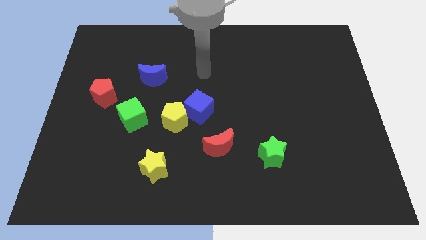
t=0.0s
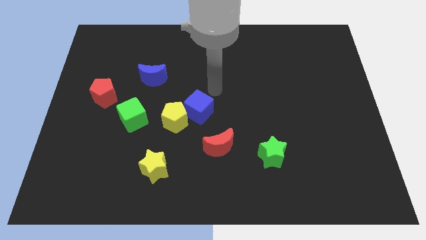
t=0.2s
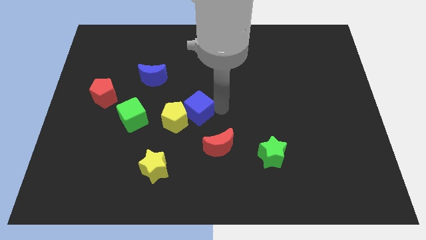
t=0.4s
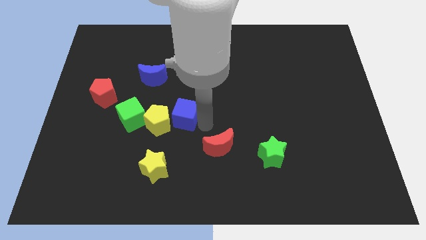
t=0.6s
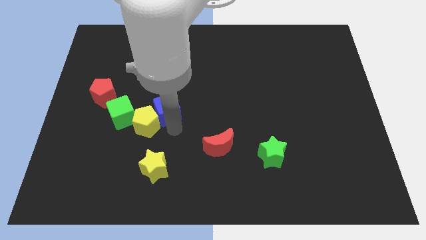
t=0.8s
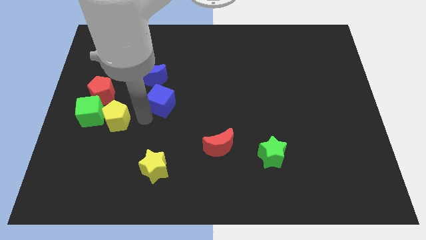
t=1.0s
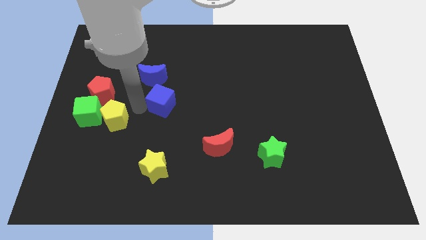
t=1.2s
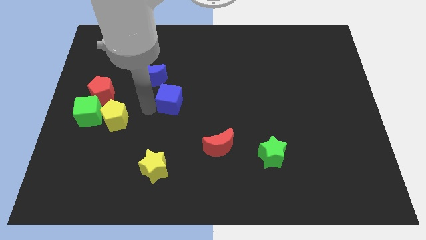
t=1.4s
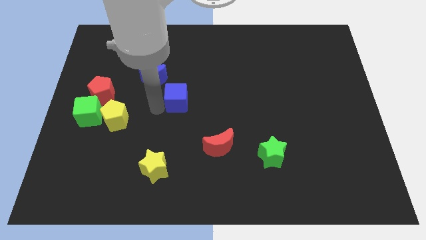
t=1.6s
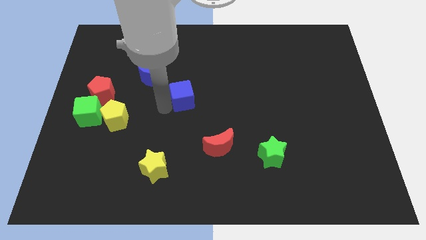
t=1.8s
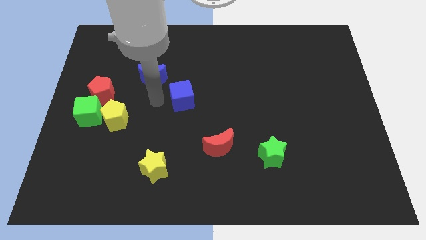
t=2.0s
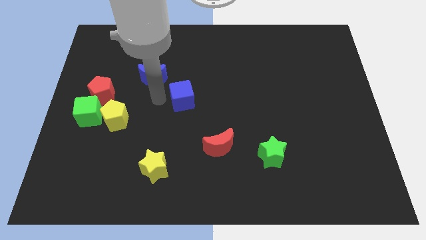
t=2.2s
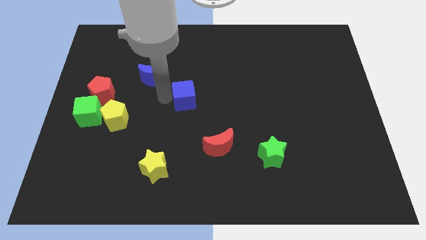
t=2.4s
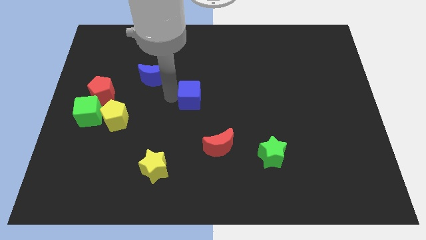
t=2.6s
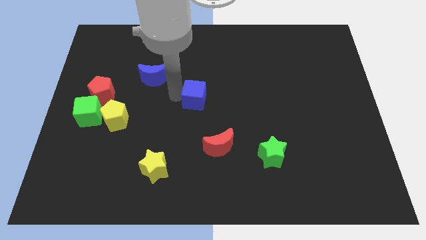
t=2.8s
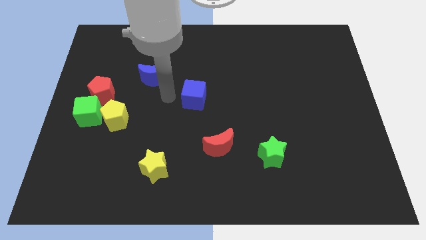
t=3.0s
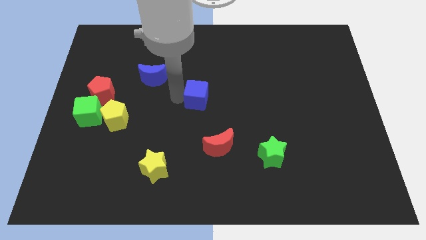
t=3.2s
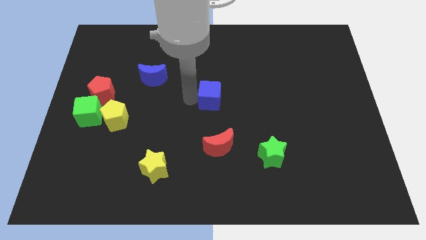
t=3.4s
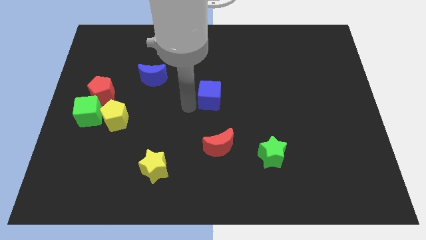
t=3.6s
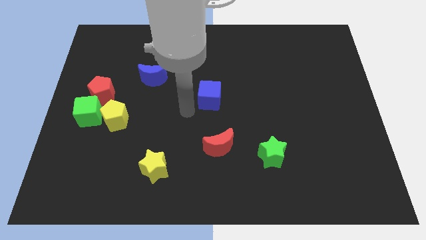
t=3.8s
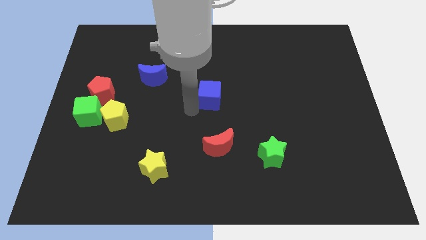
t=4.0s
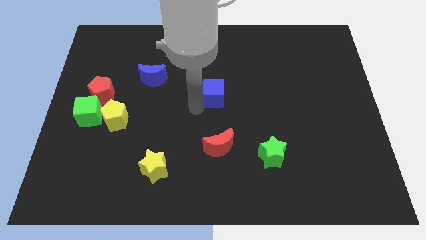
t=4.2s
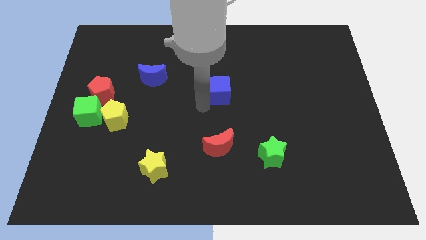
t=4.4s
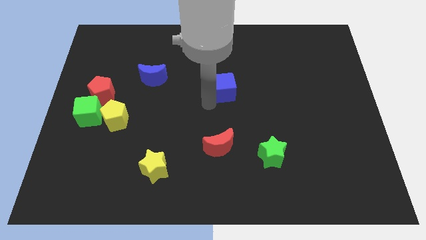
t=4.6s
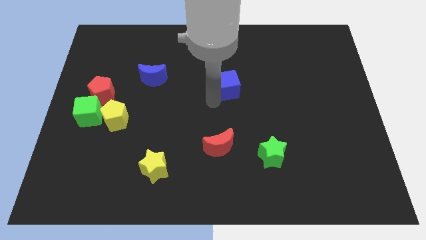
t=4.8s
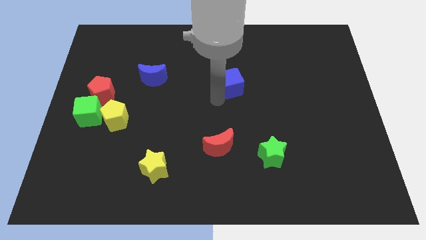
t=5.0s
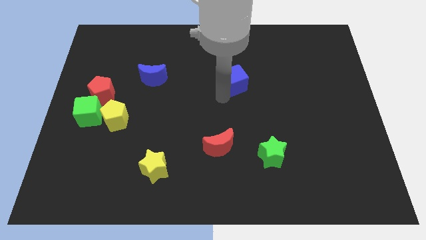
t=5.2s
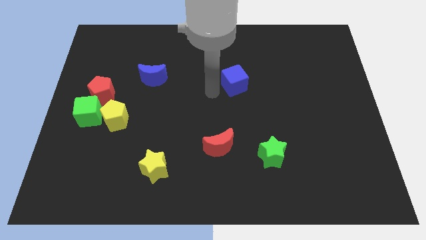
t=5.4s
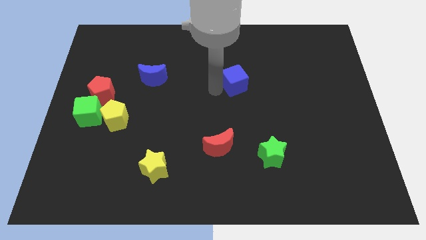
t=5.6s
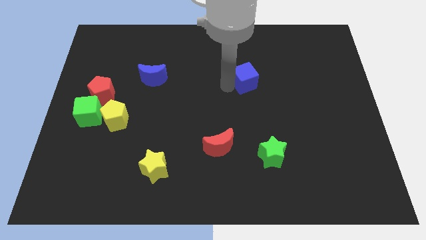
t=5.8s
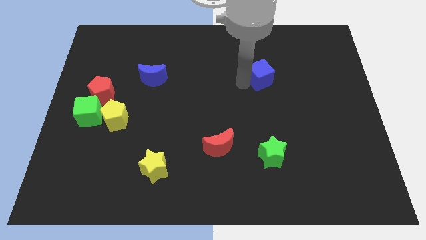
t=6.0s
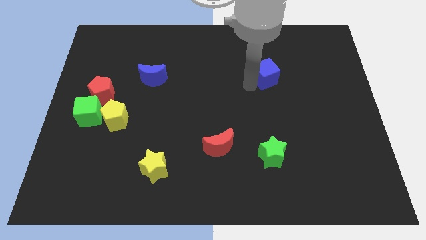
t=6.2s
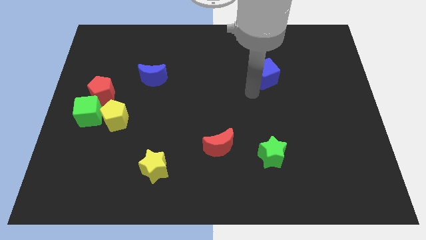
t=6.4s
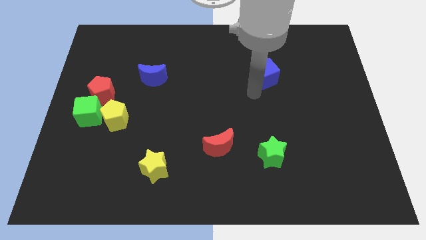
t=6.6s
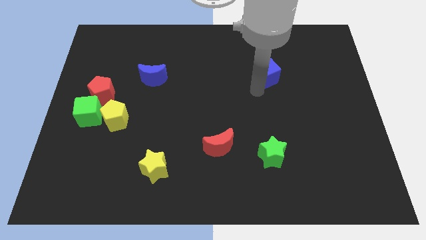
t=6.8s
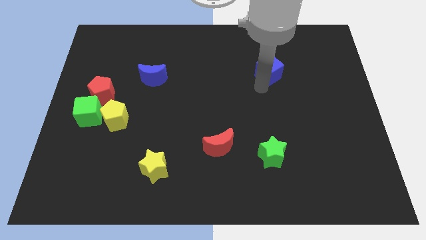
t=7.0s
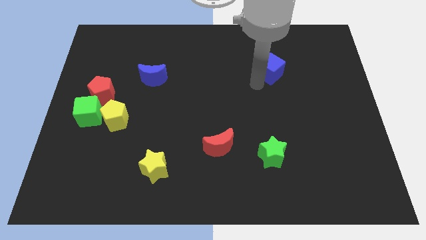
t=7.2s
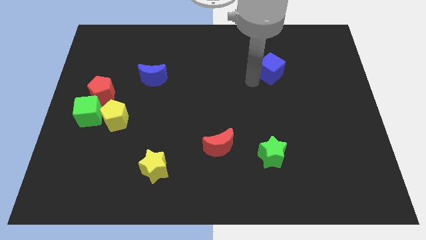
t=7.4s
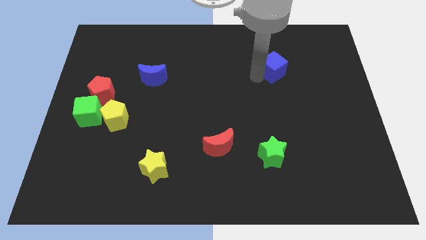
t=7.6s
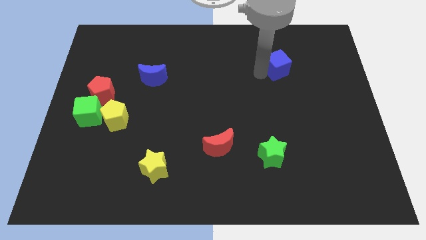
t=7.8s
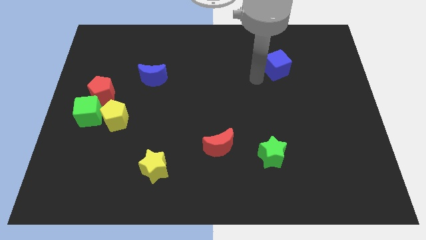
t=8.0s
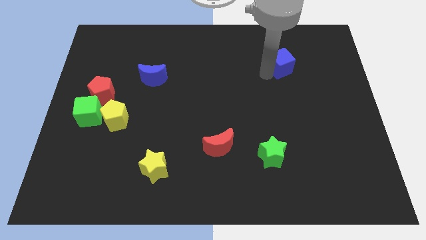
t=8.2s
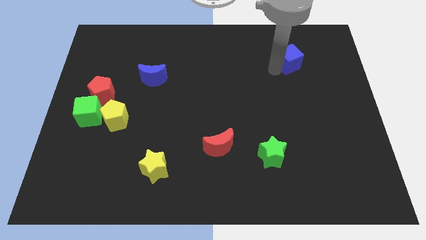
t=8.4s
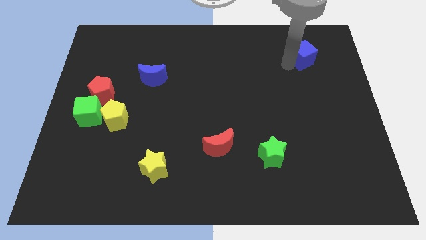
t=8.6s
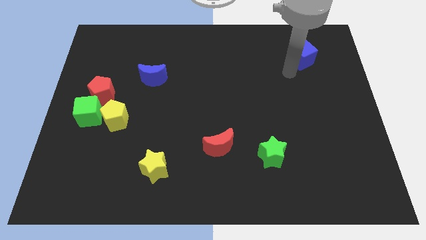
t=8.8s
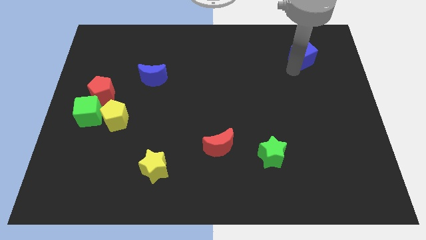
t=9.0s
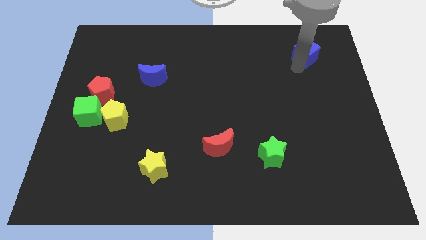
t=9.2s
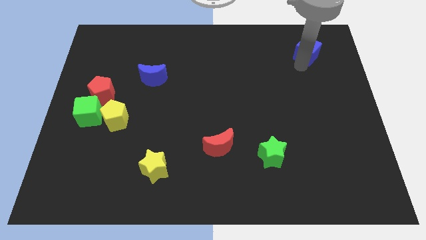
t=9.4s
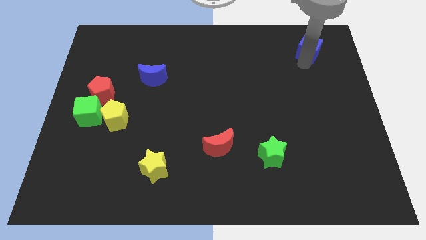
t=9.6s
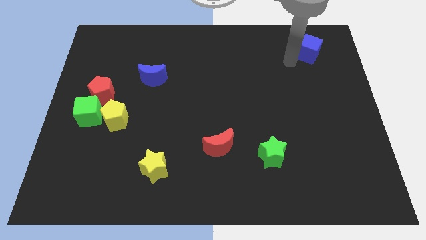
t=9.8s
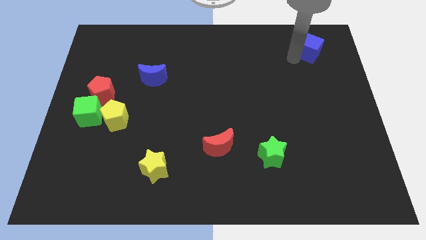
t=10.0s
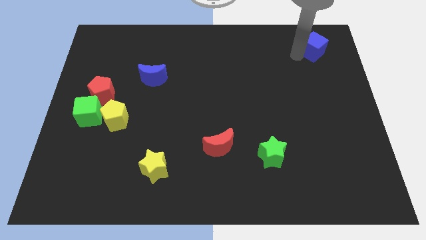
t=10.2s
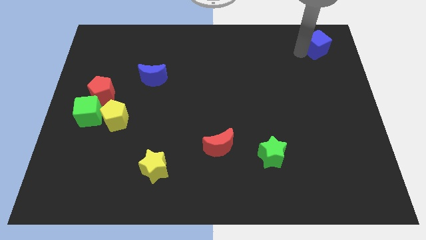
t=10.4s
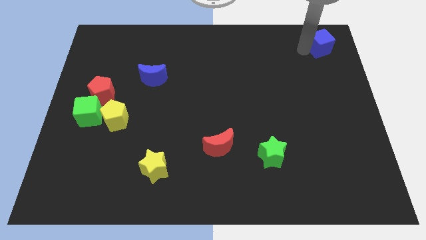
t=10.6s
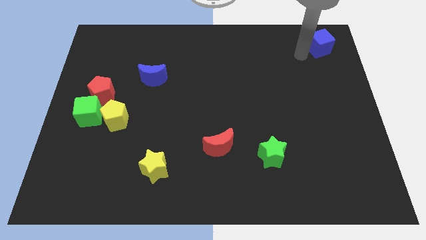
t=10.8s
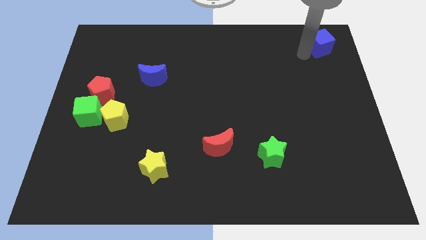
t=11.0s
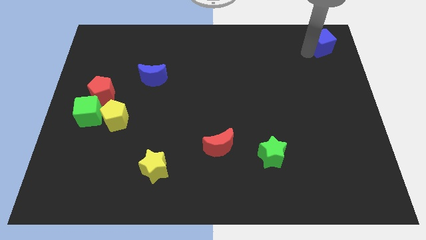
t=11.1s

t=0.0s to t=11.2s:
push the blue cube to the upper right corner

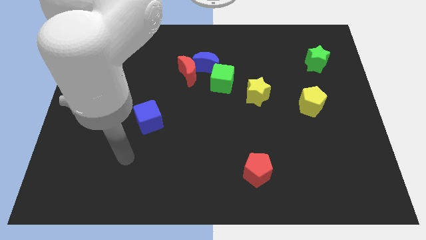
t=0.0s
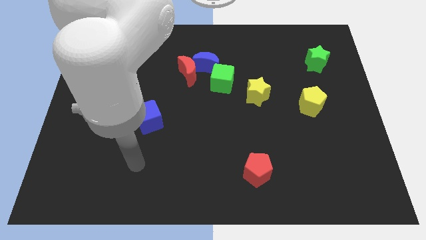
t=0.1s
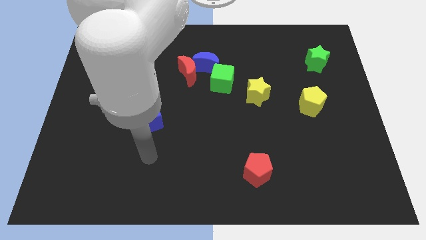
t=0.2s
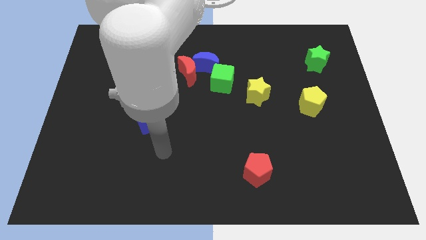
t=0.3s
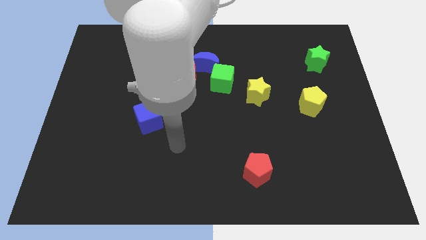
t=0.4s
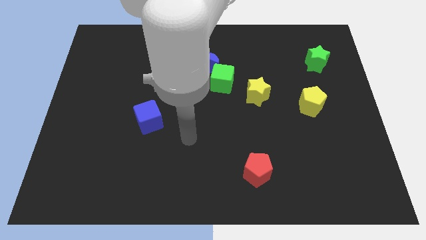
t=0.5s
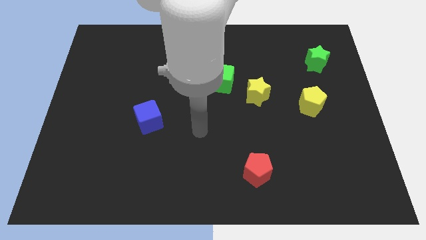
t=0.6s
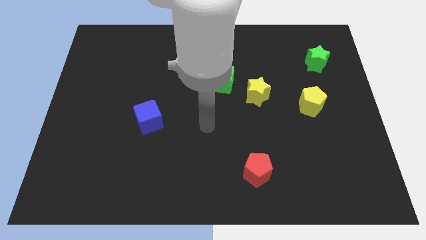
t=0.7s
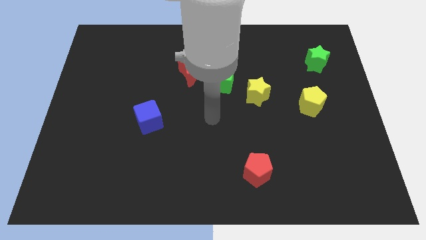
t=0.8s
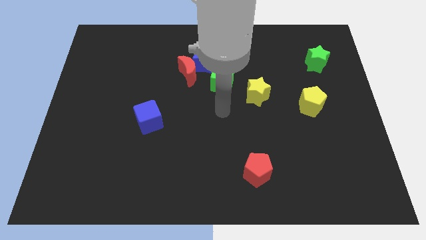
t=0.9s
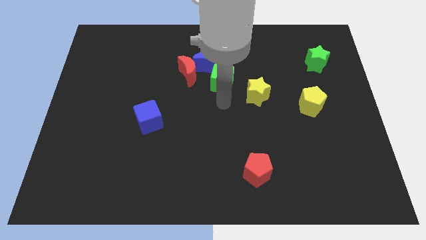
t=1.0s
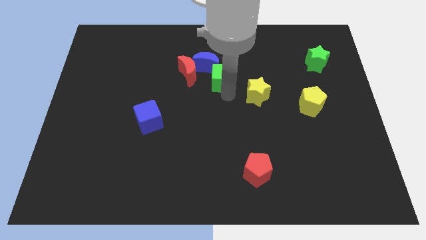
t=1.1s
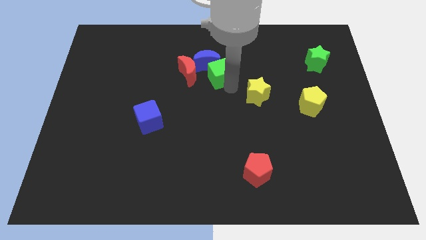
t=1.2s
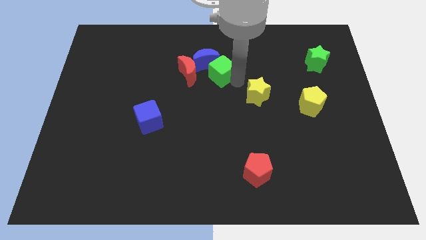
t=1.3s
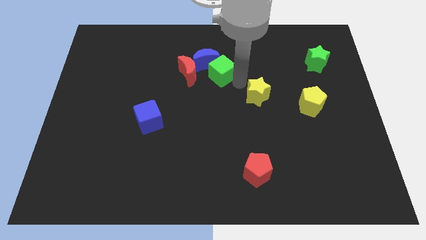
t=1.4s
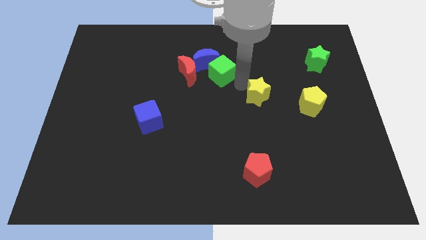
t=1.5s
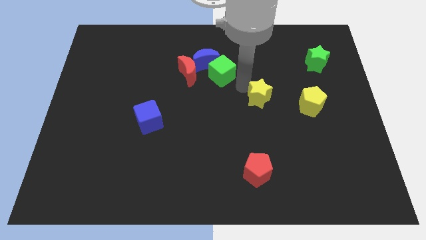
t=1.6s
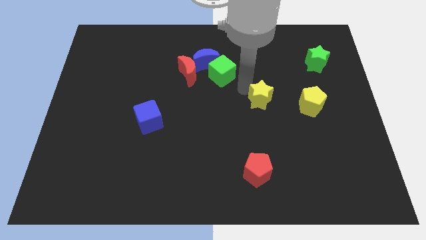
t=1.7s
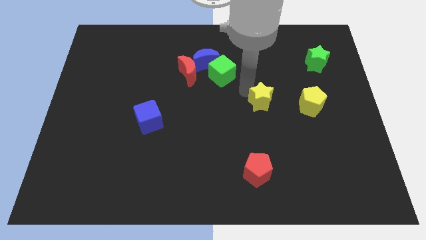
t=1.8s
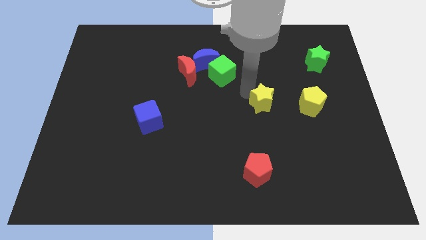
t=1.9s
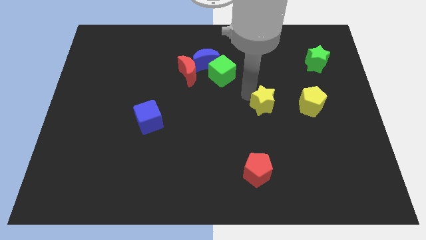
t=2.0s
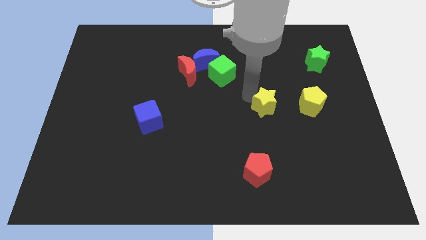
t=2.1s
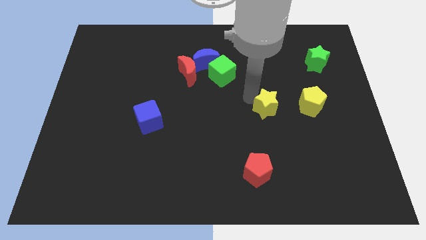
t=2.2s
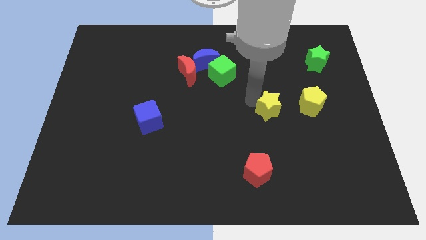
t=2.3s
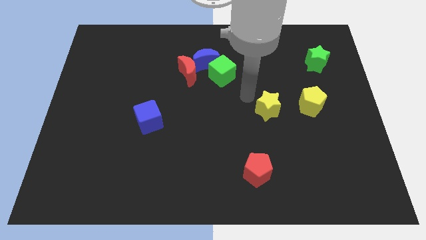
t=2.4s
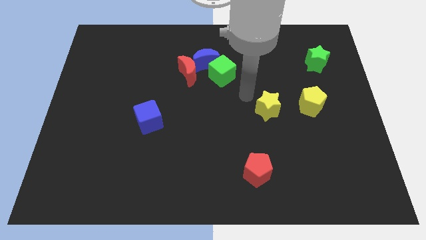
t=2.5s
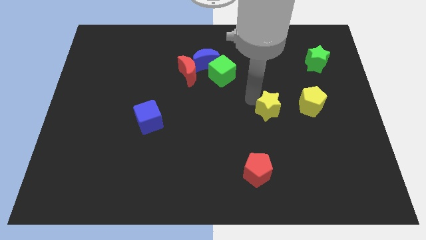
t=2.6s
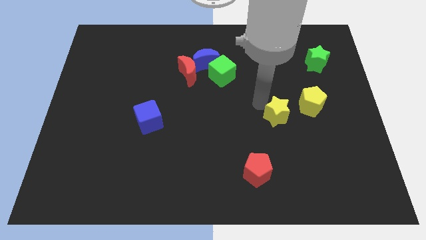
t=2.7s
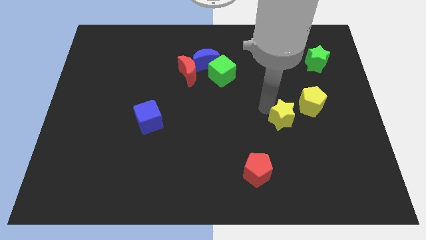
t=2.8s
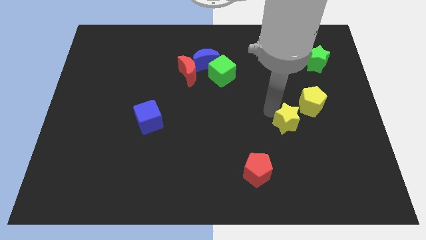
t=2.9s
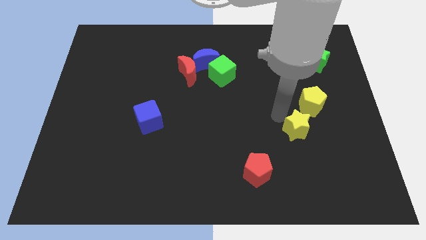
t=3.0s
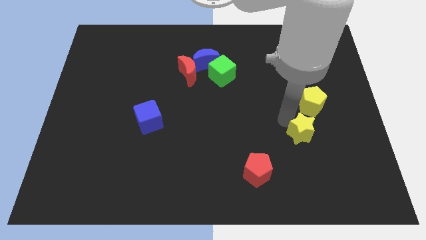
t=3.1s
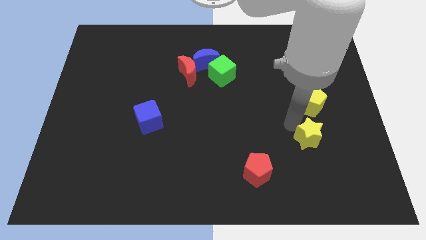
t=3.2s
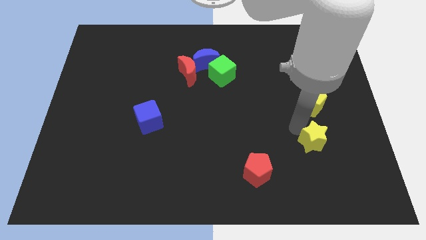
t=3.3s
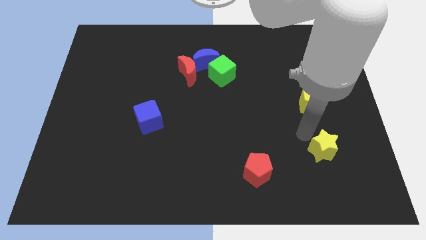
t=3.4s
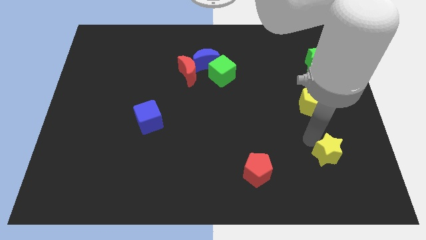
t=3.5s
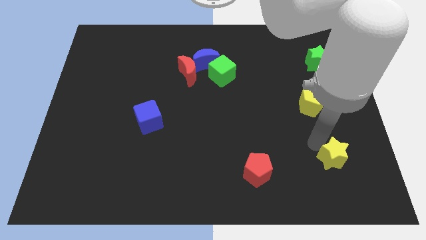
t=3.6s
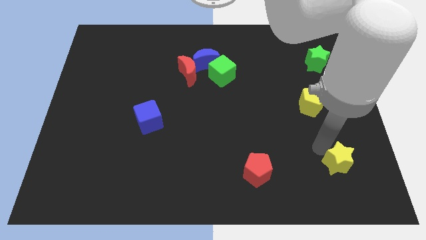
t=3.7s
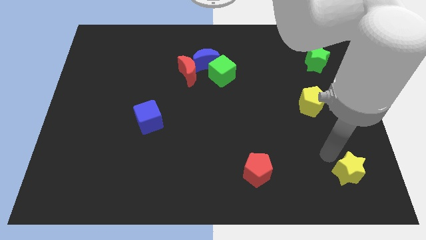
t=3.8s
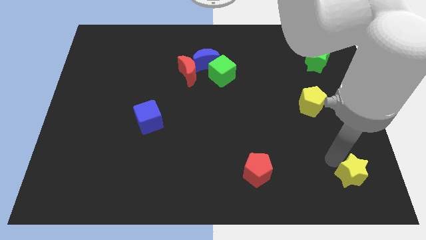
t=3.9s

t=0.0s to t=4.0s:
slide the yellow star to the lower right corner
